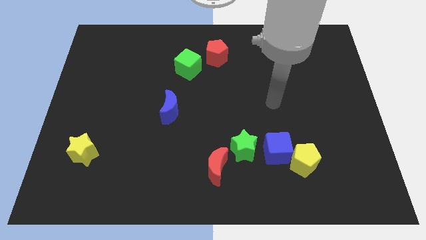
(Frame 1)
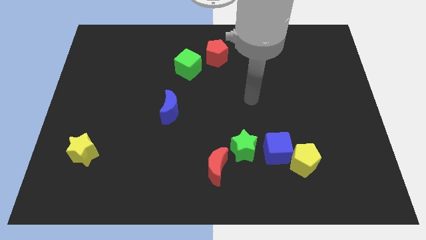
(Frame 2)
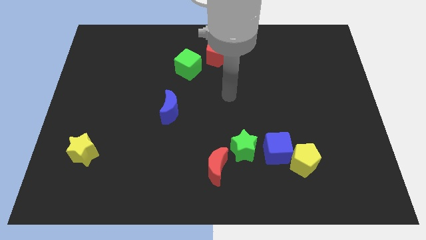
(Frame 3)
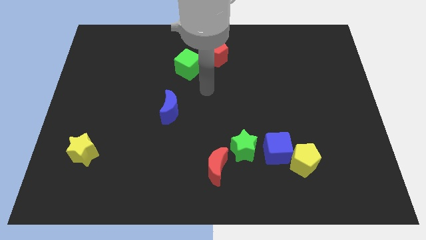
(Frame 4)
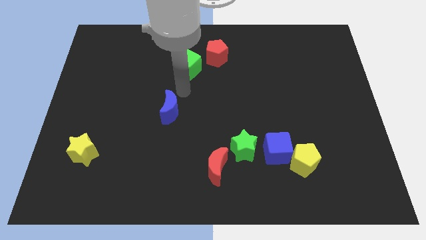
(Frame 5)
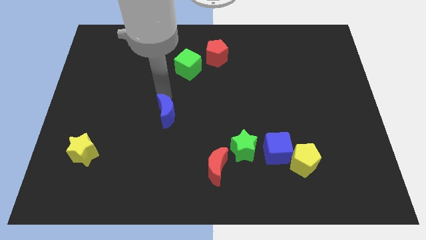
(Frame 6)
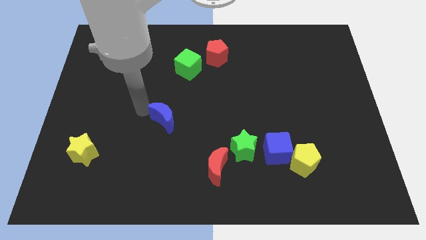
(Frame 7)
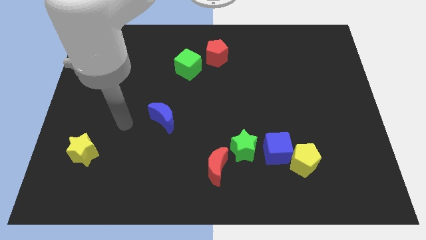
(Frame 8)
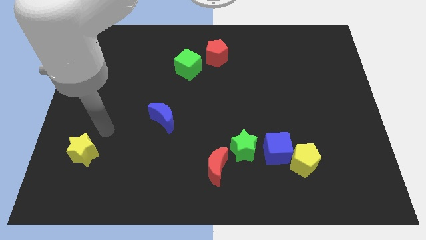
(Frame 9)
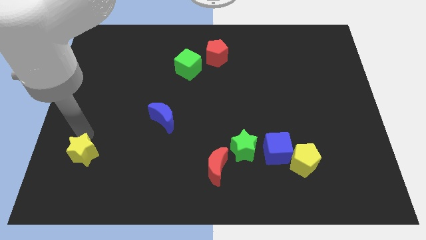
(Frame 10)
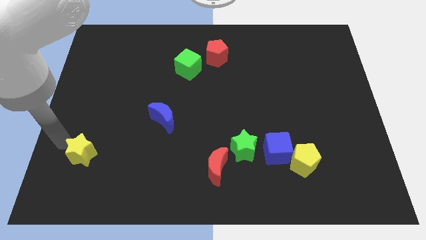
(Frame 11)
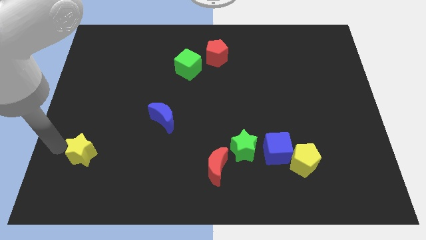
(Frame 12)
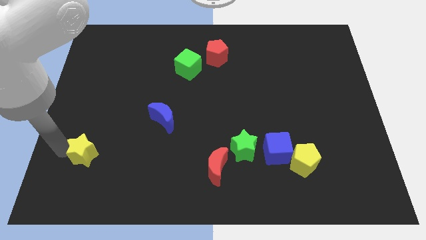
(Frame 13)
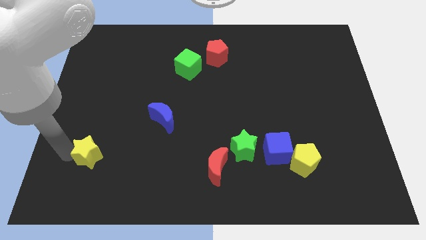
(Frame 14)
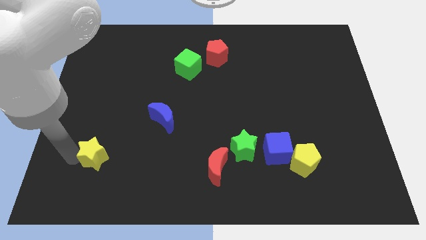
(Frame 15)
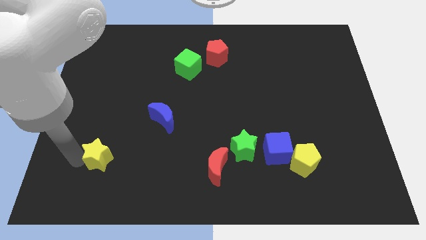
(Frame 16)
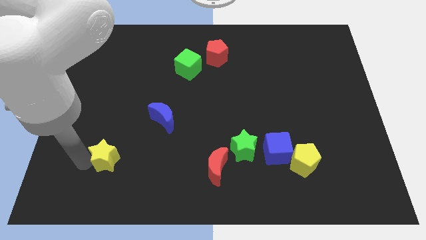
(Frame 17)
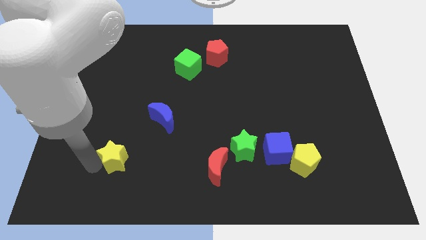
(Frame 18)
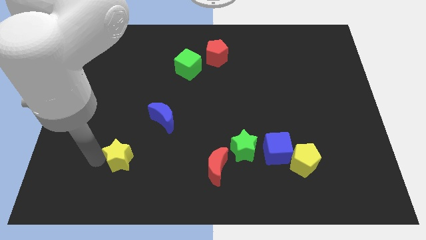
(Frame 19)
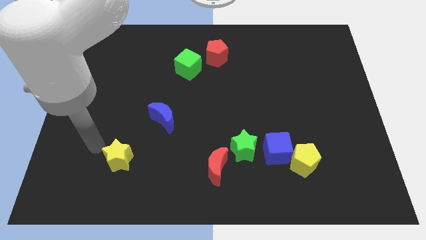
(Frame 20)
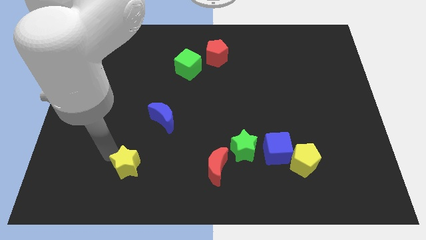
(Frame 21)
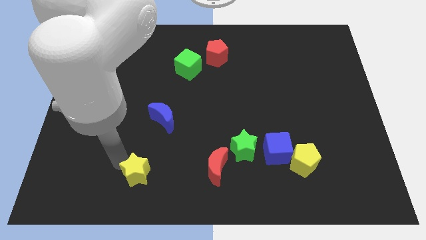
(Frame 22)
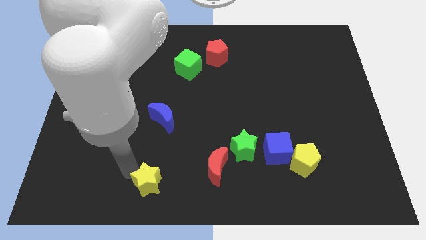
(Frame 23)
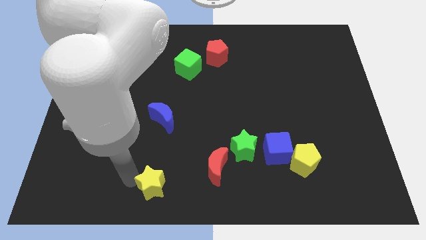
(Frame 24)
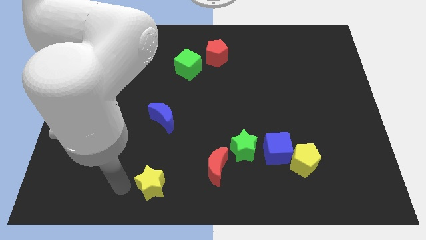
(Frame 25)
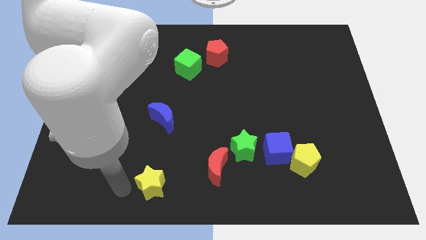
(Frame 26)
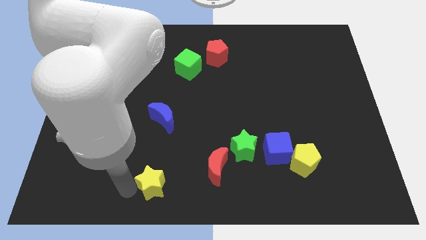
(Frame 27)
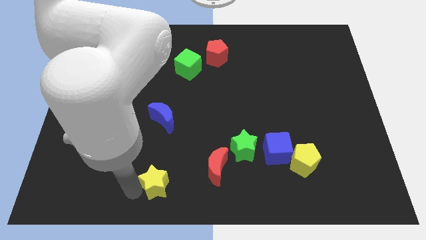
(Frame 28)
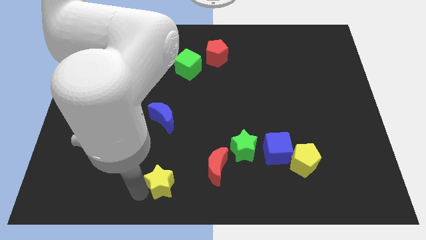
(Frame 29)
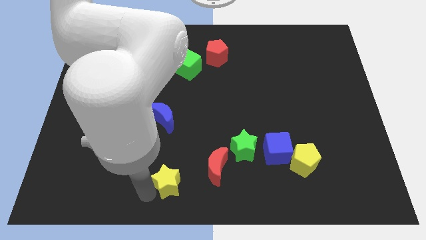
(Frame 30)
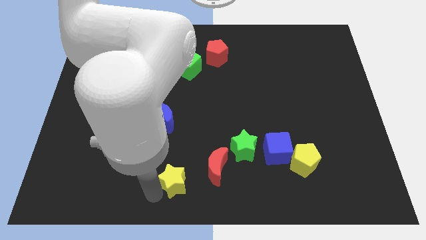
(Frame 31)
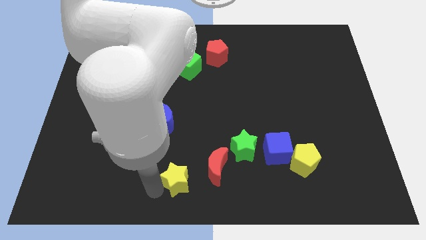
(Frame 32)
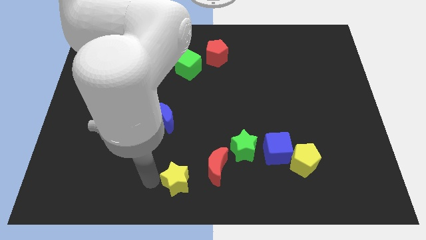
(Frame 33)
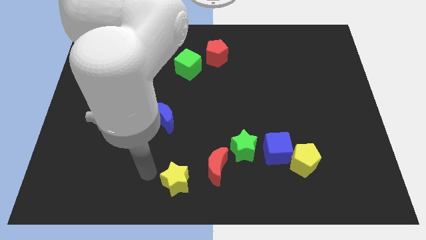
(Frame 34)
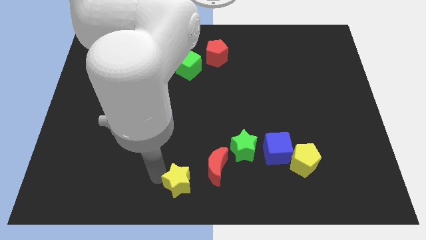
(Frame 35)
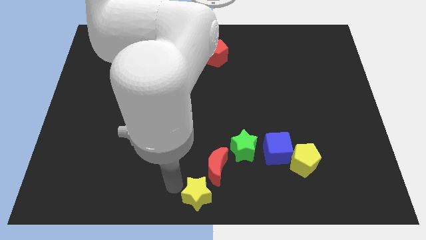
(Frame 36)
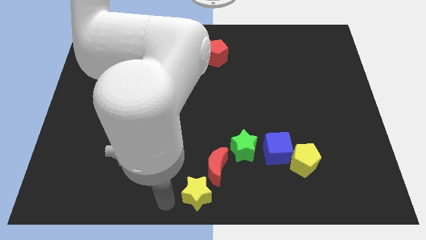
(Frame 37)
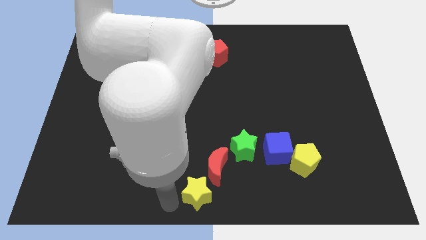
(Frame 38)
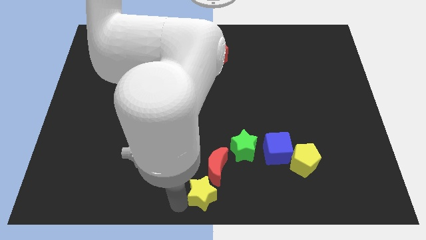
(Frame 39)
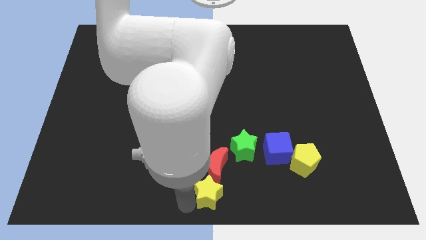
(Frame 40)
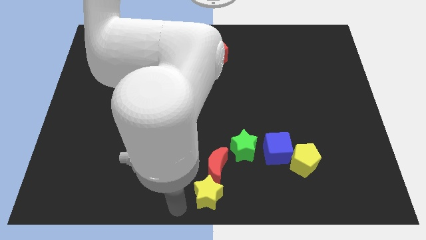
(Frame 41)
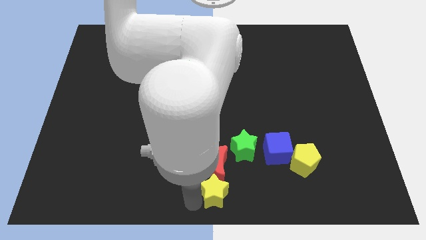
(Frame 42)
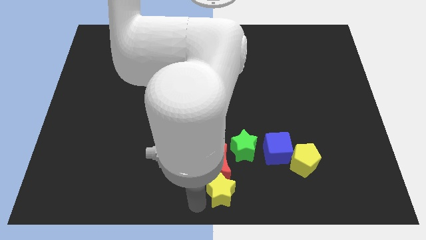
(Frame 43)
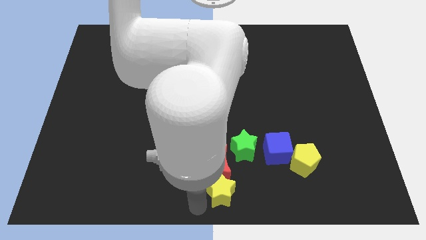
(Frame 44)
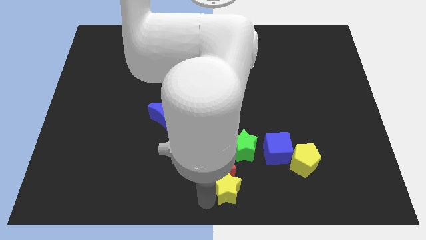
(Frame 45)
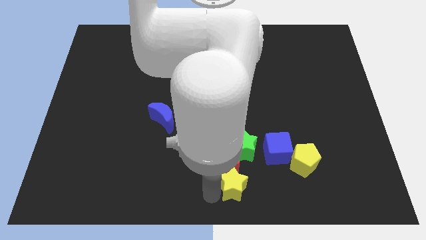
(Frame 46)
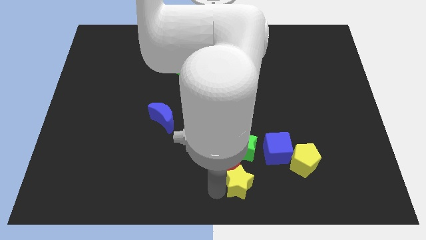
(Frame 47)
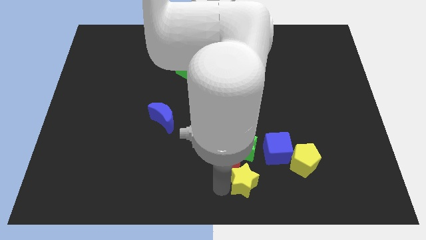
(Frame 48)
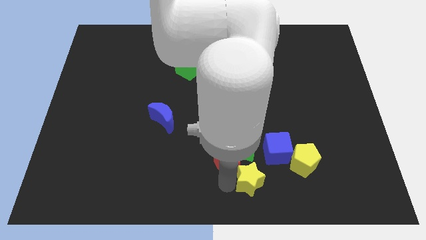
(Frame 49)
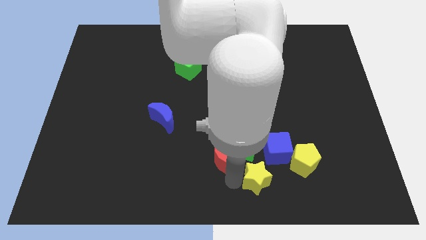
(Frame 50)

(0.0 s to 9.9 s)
push the yellow star diagonally down and to the left of the yellow pentagon

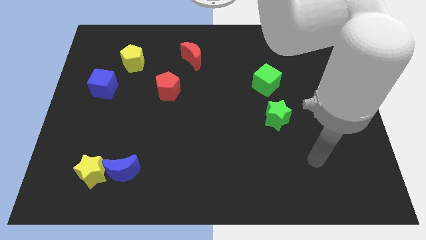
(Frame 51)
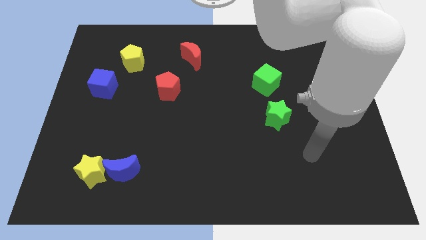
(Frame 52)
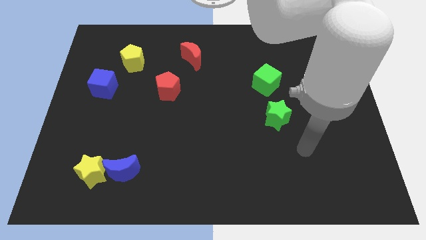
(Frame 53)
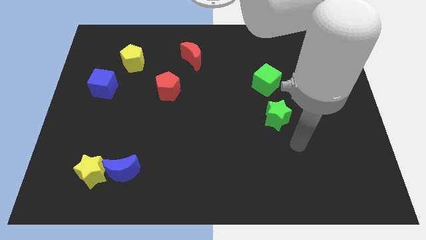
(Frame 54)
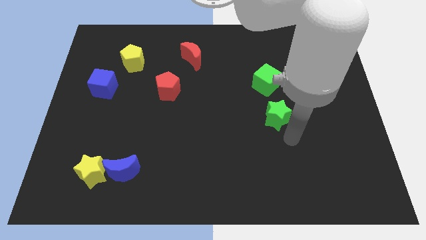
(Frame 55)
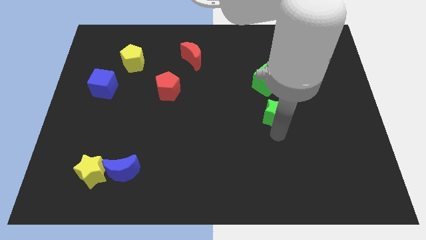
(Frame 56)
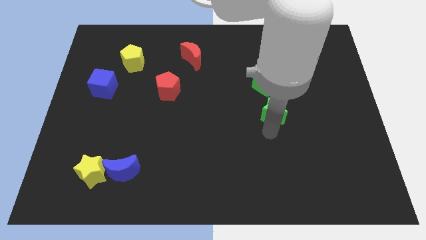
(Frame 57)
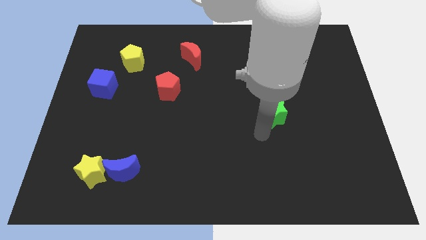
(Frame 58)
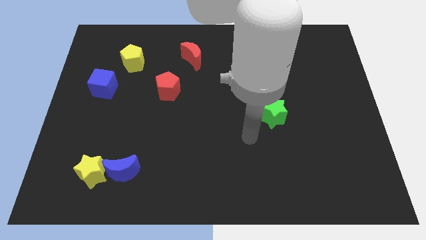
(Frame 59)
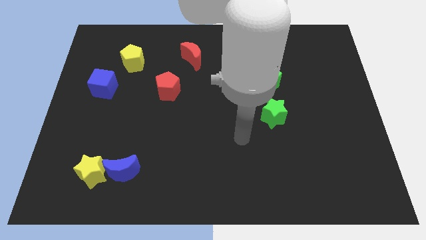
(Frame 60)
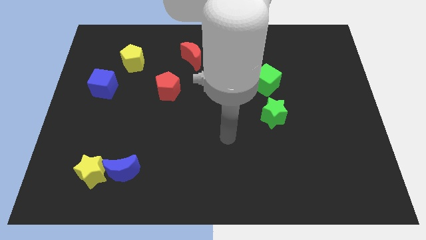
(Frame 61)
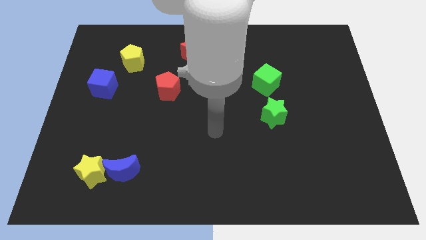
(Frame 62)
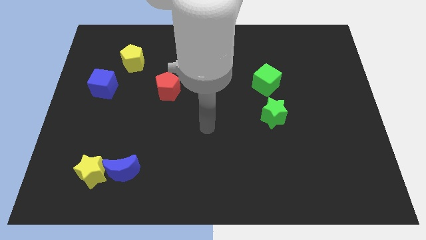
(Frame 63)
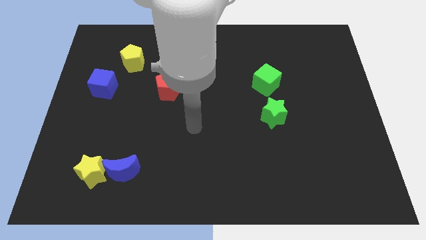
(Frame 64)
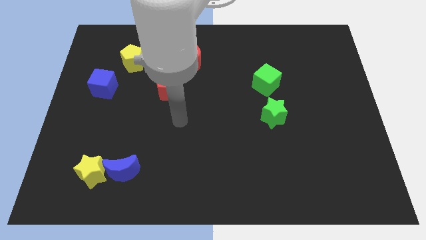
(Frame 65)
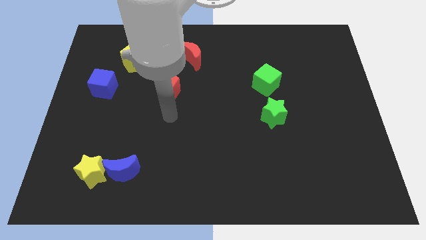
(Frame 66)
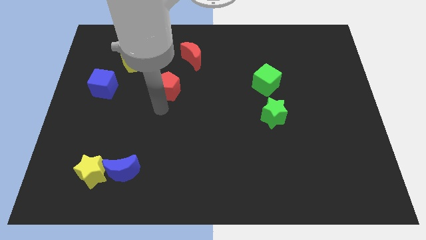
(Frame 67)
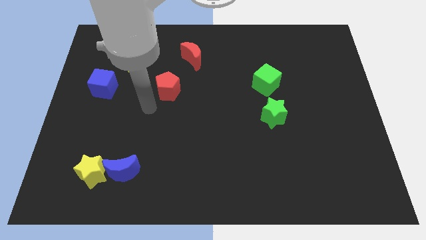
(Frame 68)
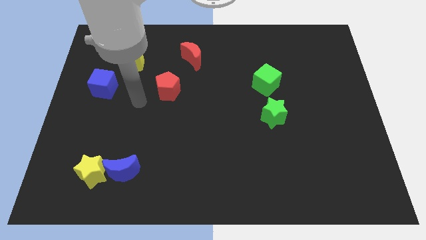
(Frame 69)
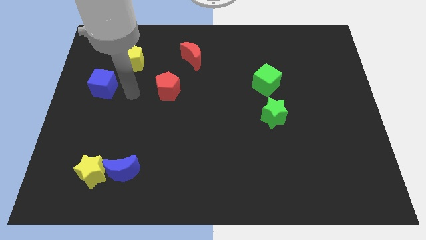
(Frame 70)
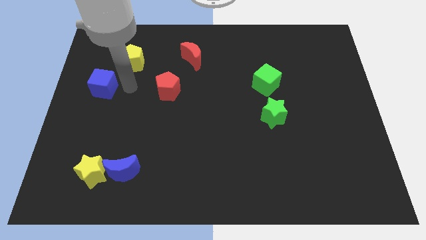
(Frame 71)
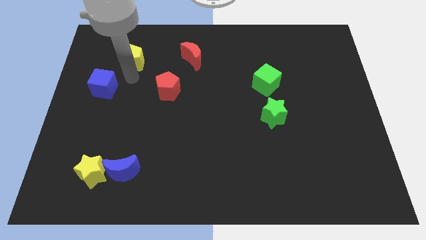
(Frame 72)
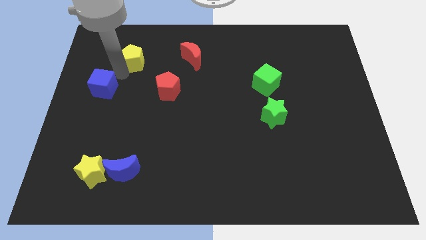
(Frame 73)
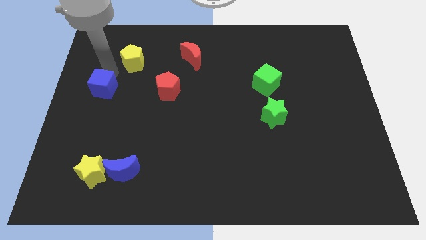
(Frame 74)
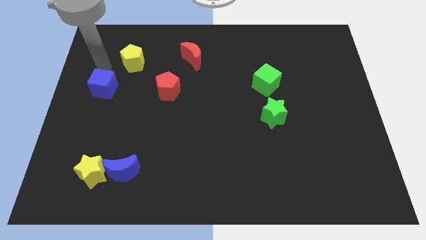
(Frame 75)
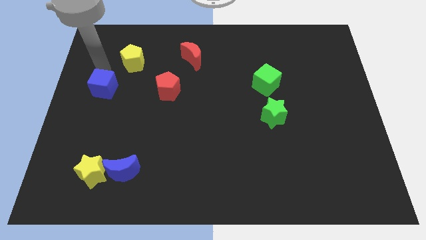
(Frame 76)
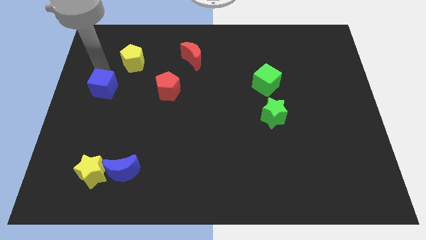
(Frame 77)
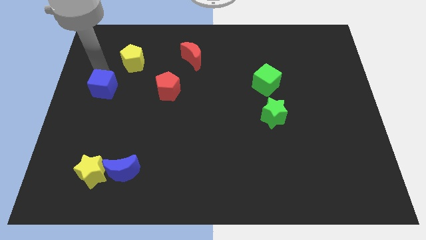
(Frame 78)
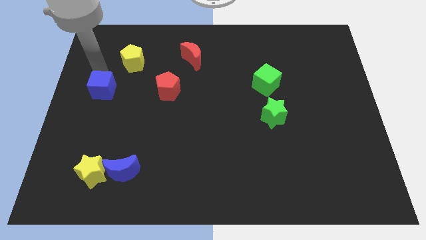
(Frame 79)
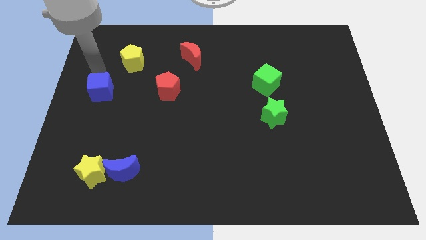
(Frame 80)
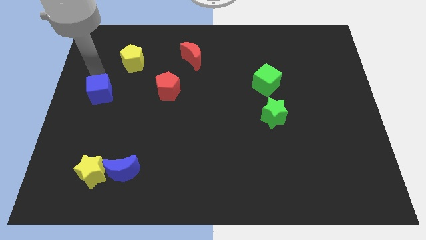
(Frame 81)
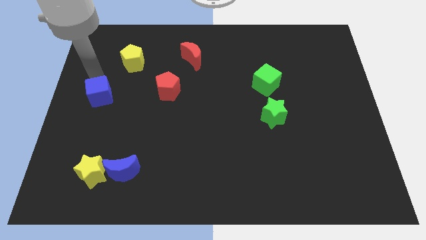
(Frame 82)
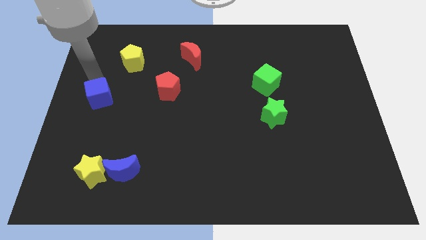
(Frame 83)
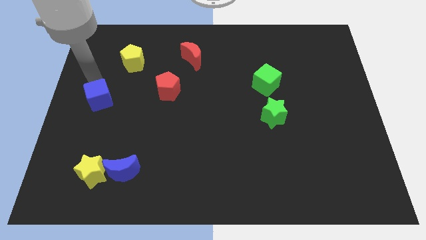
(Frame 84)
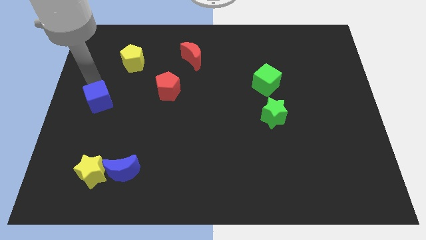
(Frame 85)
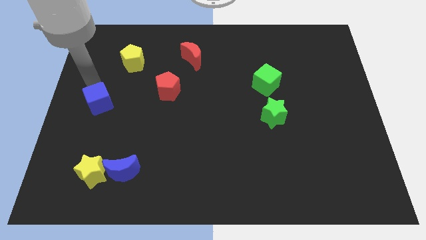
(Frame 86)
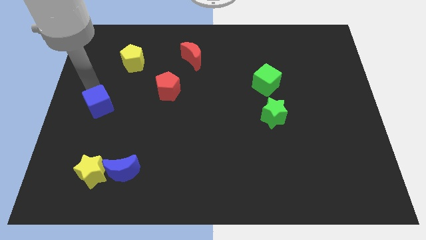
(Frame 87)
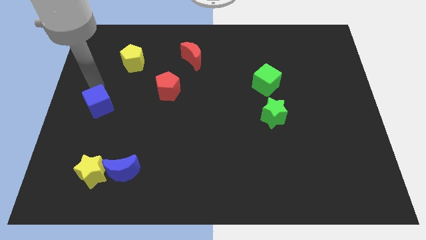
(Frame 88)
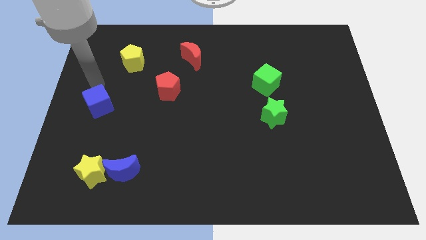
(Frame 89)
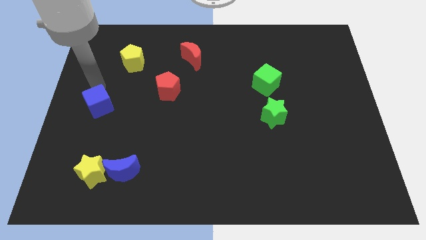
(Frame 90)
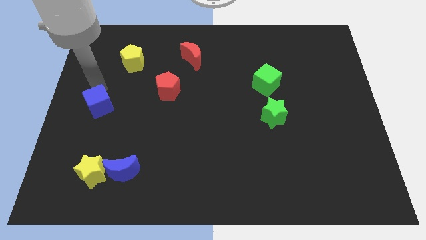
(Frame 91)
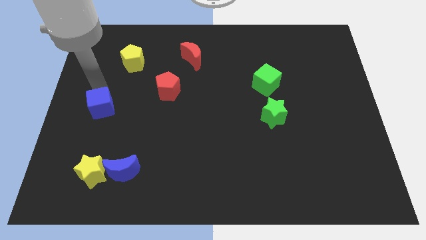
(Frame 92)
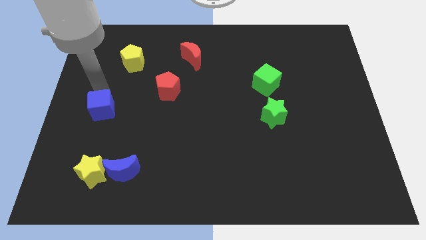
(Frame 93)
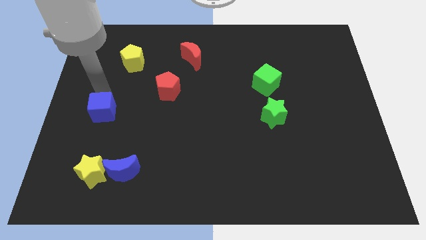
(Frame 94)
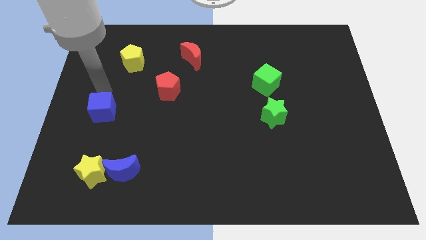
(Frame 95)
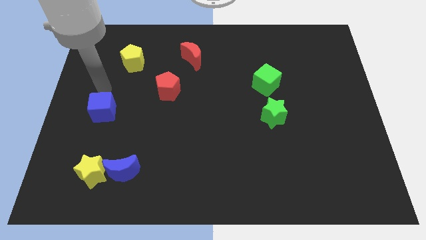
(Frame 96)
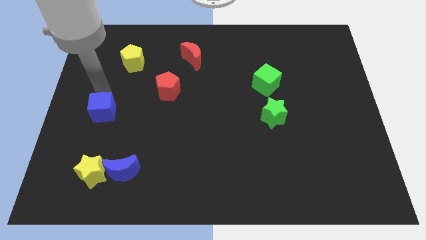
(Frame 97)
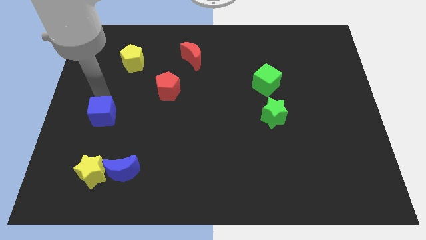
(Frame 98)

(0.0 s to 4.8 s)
slide the blue cube above the yellow star
